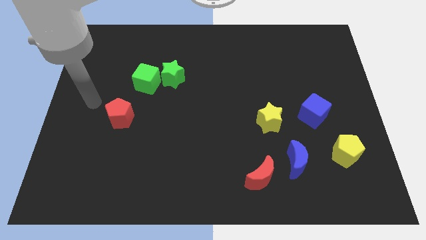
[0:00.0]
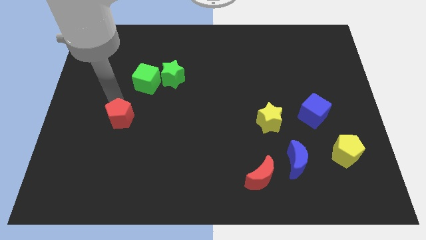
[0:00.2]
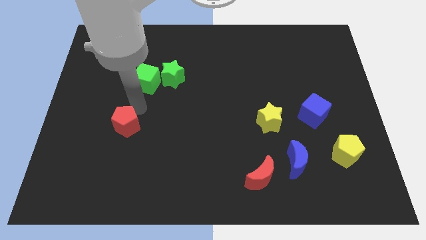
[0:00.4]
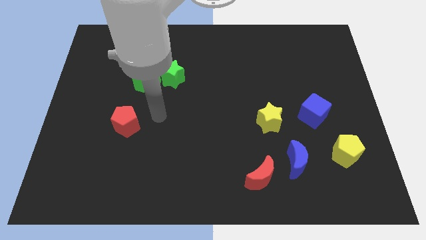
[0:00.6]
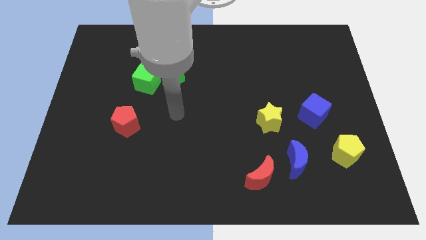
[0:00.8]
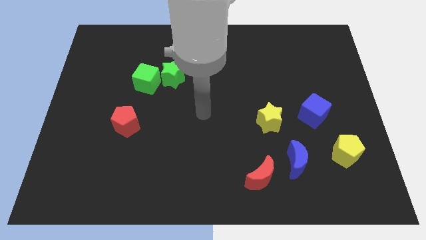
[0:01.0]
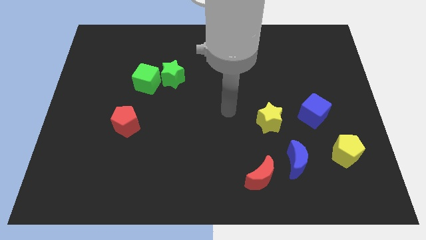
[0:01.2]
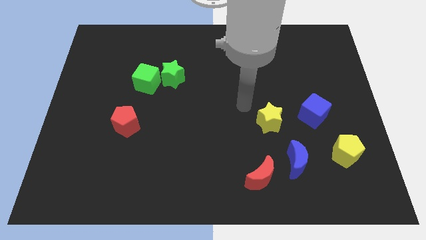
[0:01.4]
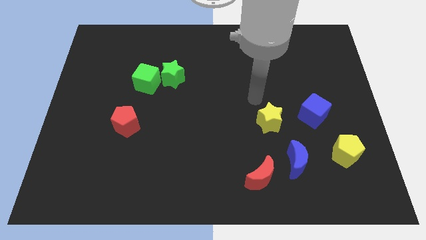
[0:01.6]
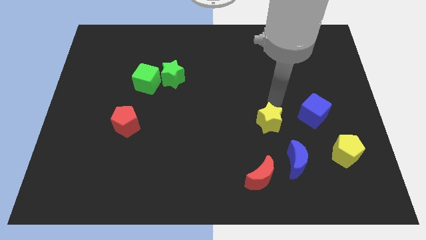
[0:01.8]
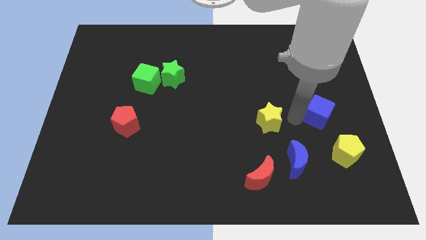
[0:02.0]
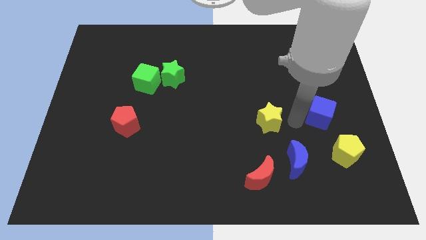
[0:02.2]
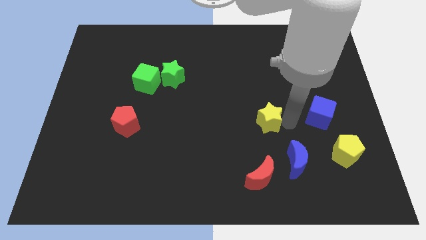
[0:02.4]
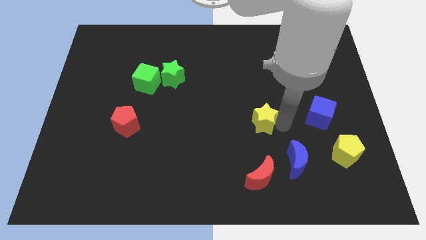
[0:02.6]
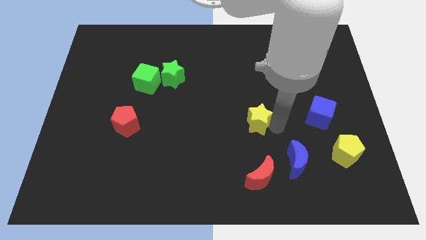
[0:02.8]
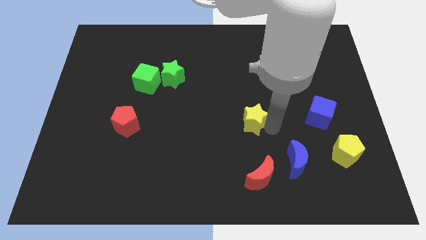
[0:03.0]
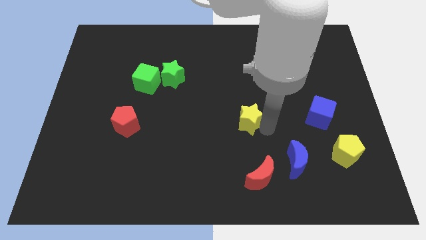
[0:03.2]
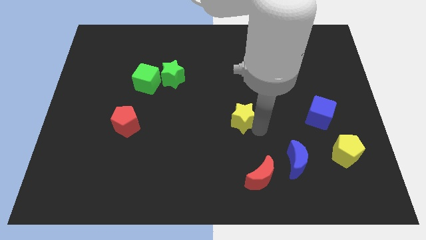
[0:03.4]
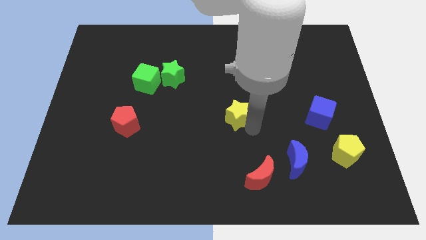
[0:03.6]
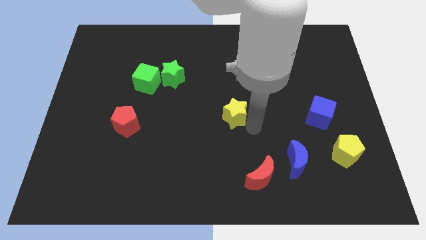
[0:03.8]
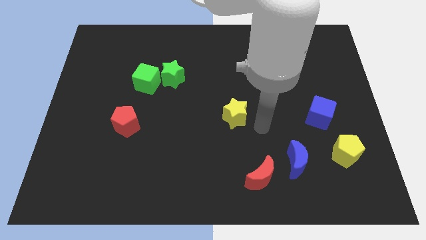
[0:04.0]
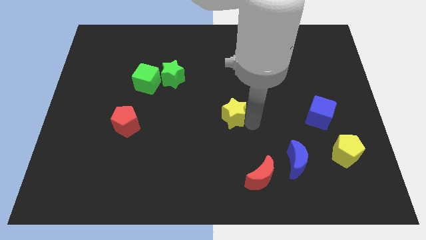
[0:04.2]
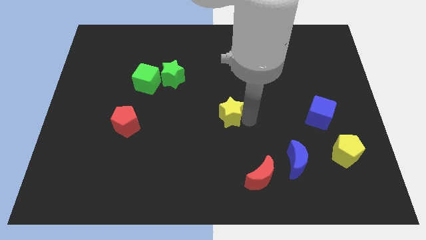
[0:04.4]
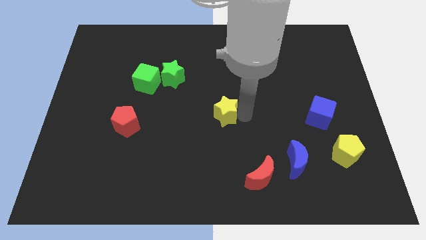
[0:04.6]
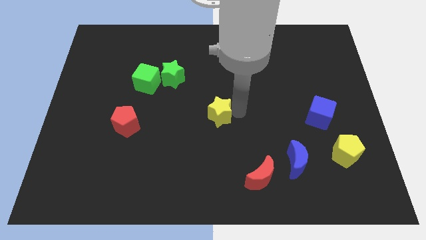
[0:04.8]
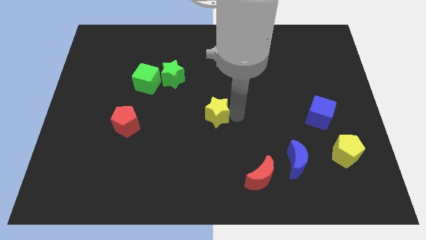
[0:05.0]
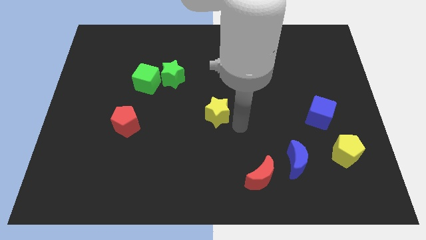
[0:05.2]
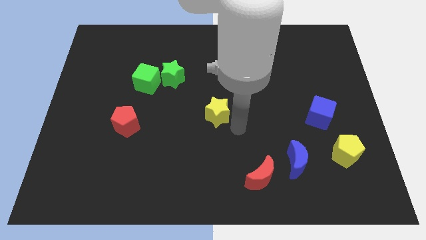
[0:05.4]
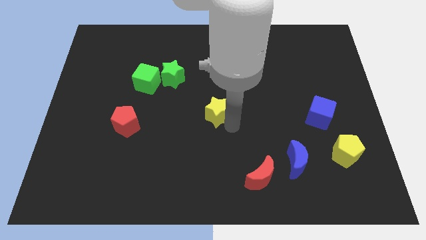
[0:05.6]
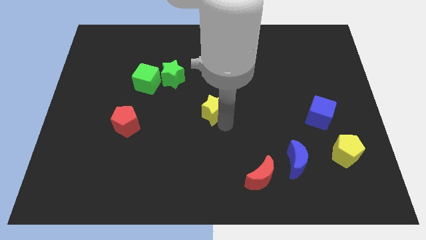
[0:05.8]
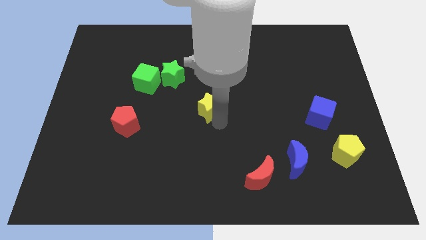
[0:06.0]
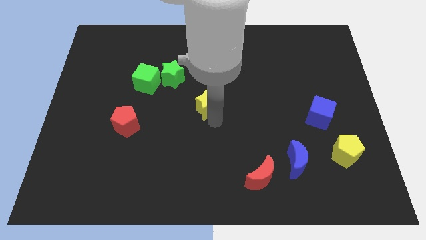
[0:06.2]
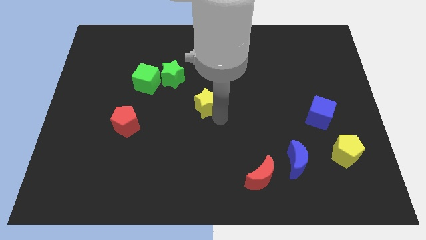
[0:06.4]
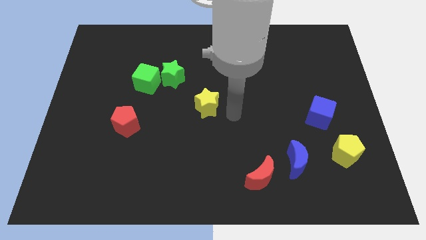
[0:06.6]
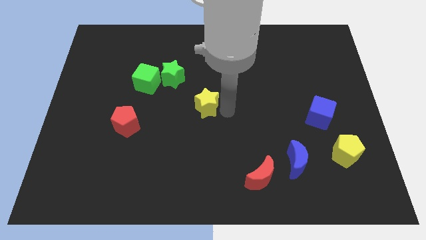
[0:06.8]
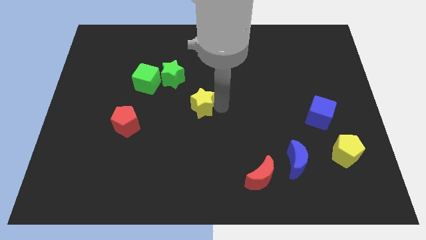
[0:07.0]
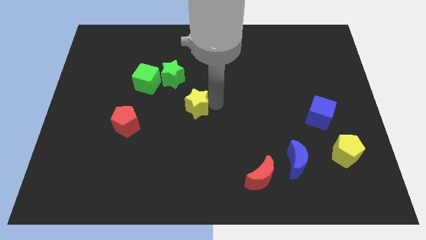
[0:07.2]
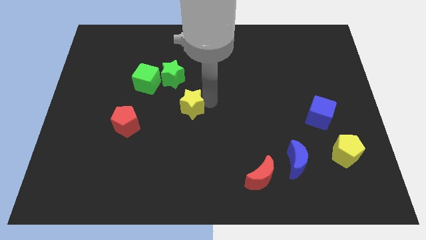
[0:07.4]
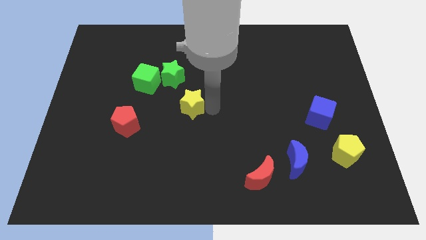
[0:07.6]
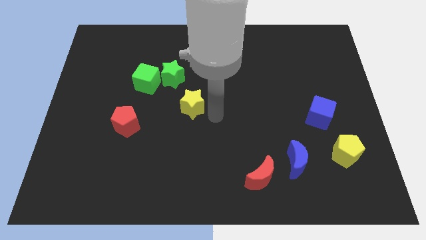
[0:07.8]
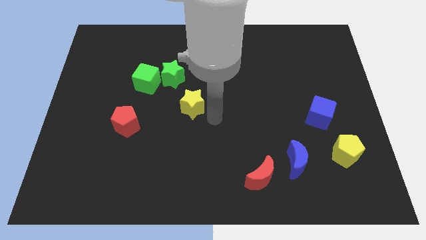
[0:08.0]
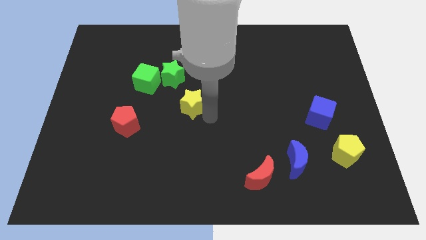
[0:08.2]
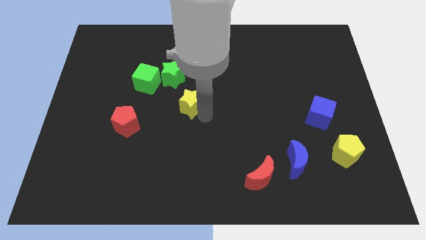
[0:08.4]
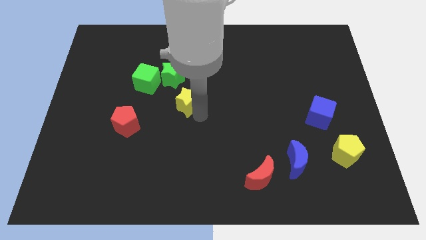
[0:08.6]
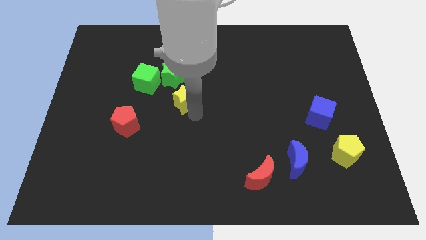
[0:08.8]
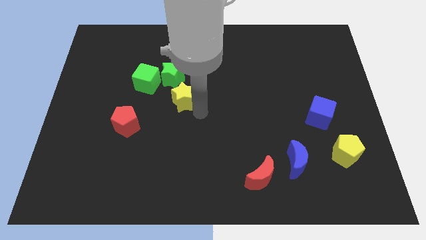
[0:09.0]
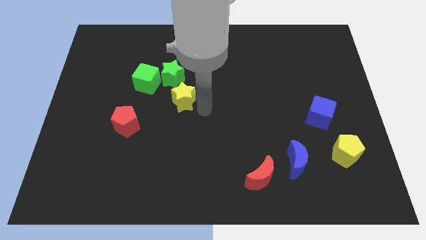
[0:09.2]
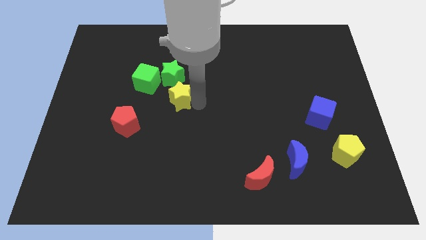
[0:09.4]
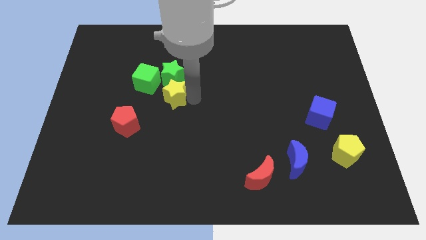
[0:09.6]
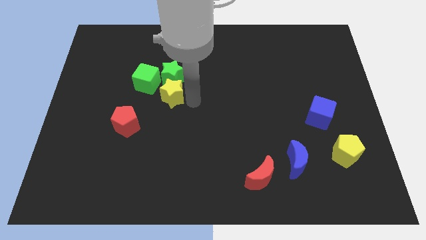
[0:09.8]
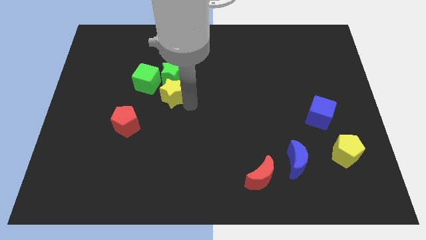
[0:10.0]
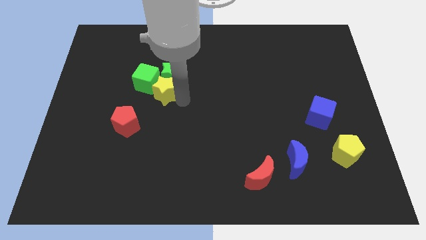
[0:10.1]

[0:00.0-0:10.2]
put the yellow star next to the green cube

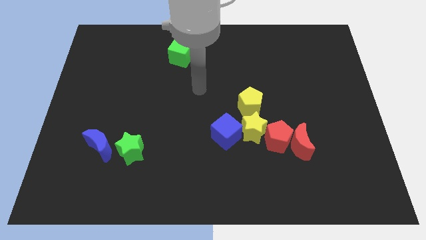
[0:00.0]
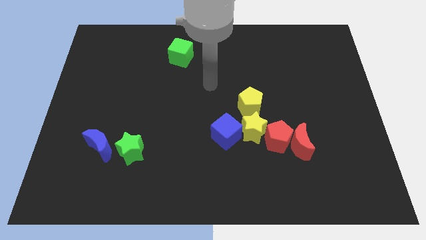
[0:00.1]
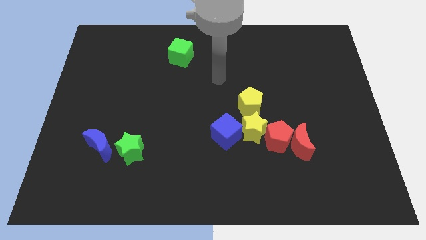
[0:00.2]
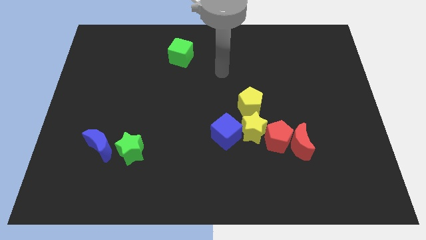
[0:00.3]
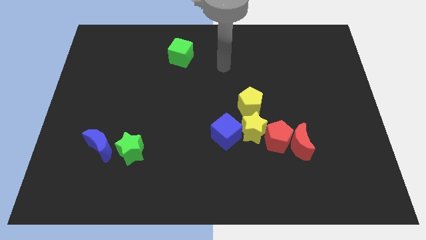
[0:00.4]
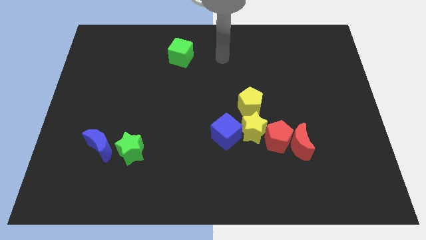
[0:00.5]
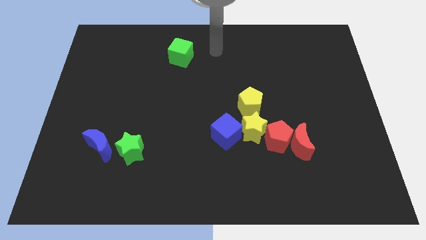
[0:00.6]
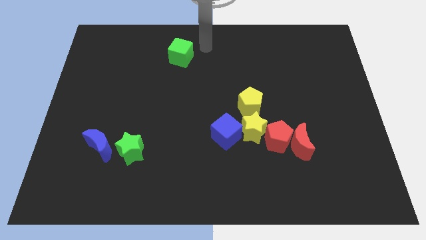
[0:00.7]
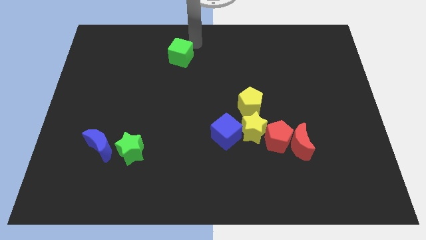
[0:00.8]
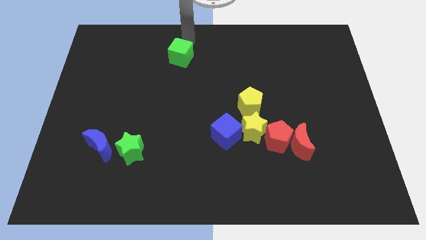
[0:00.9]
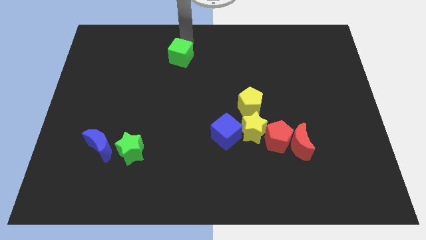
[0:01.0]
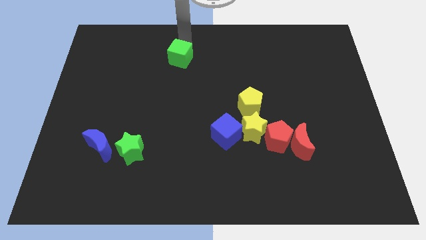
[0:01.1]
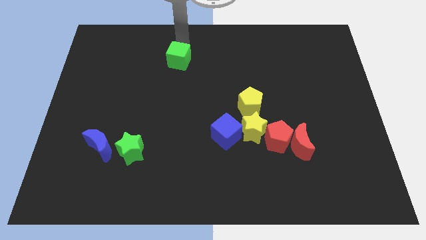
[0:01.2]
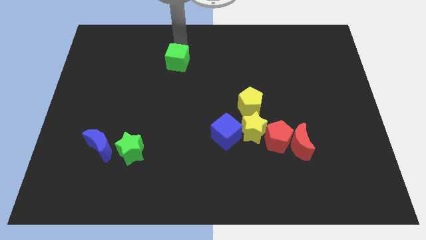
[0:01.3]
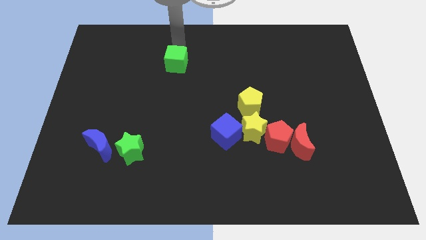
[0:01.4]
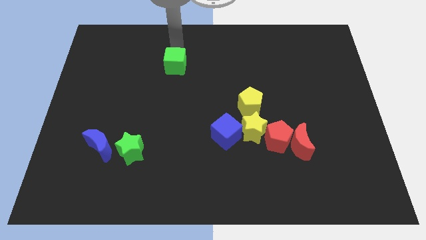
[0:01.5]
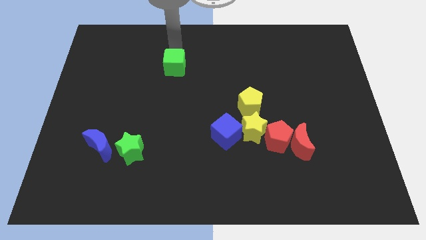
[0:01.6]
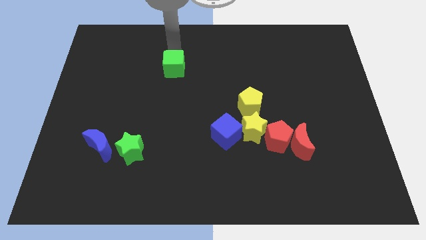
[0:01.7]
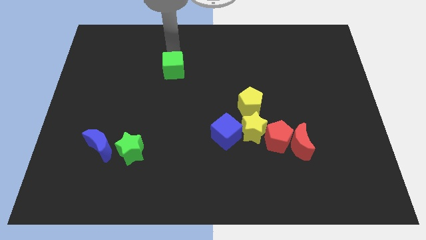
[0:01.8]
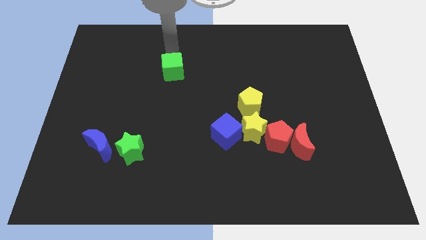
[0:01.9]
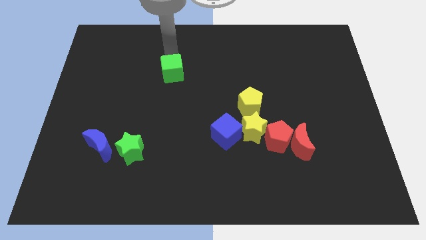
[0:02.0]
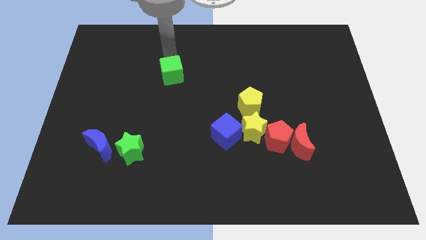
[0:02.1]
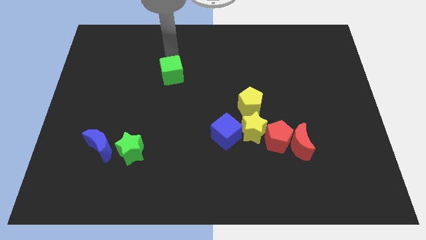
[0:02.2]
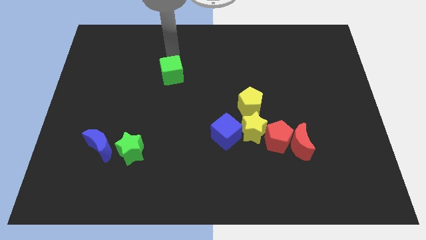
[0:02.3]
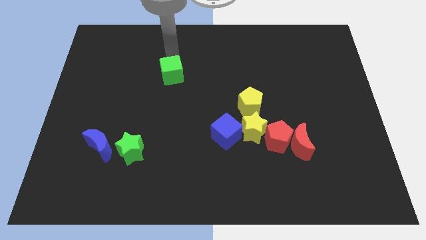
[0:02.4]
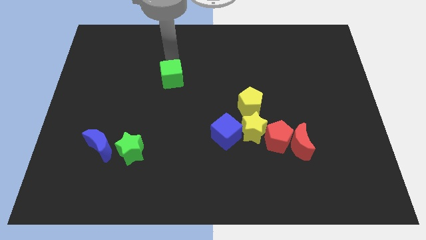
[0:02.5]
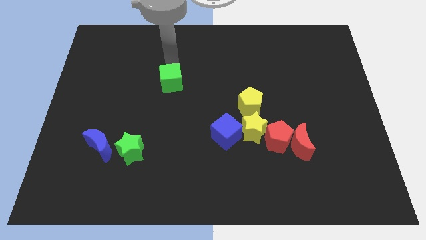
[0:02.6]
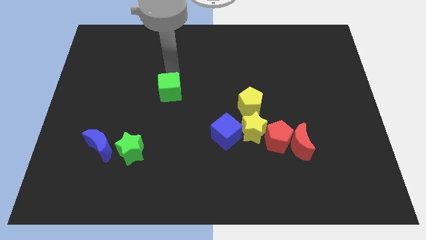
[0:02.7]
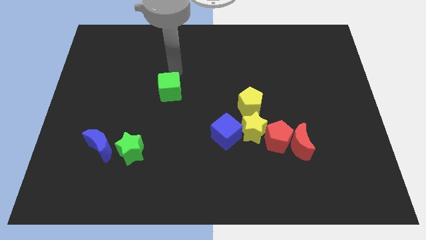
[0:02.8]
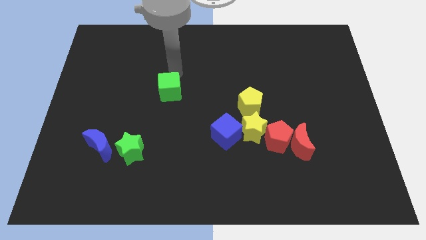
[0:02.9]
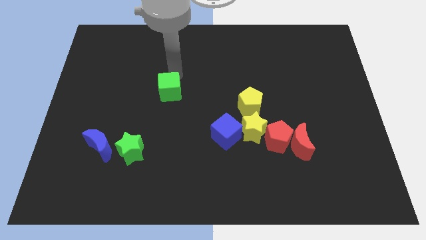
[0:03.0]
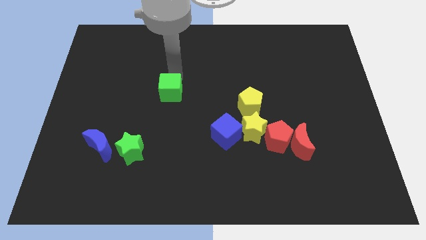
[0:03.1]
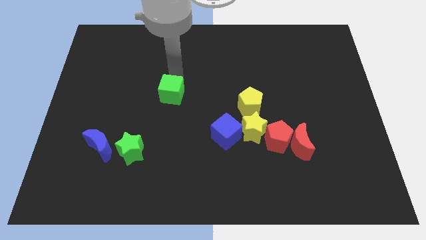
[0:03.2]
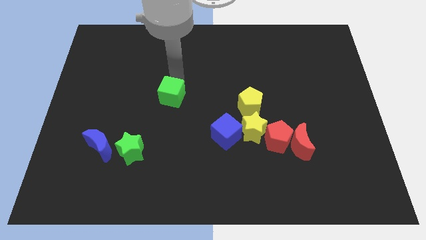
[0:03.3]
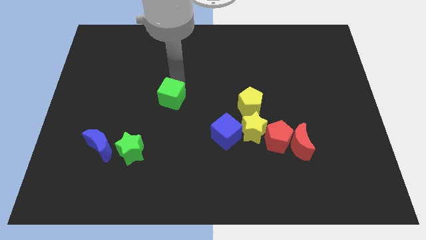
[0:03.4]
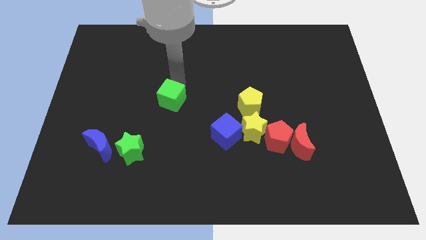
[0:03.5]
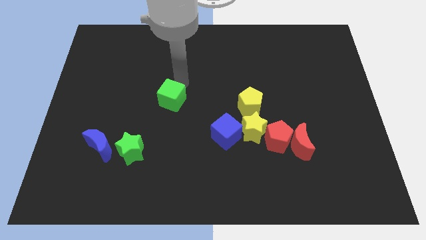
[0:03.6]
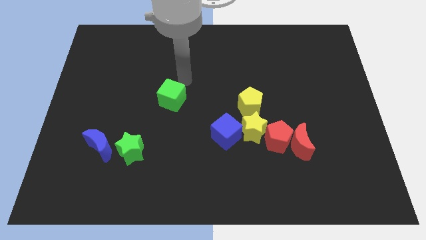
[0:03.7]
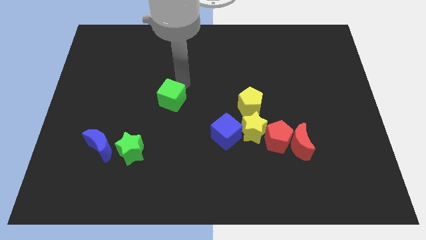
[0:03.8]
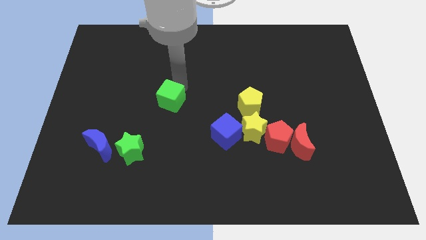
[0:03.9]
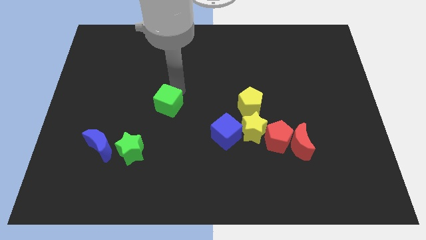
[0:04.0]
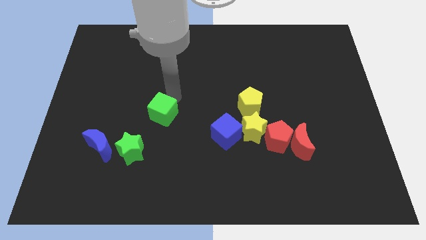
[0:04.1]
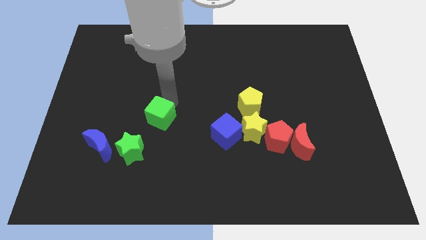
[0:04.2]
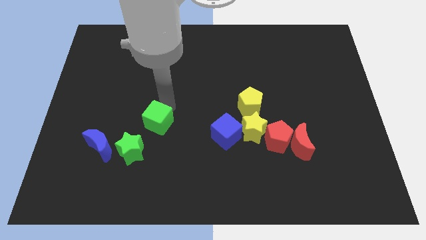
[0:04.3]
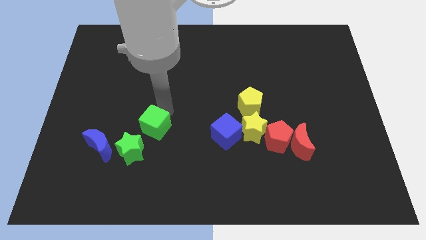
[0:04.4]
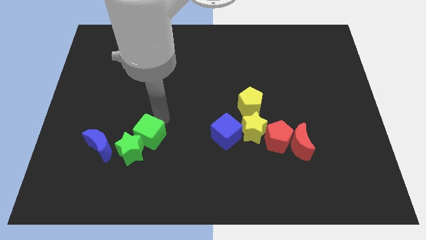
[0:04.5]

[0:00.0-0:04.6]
slide the green cube next to the green star
